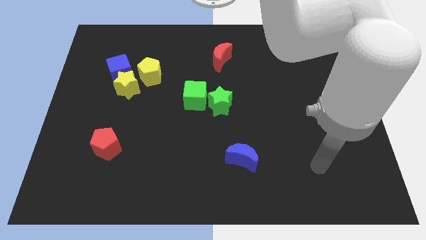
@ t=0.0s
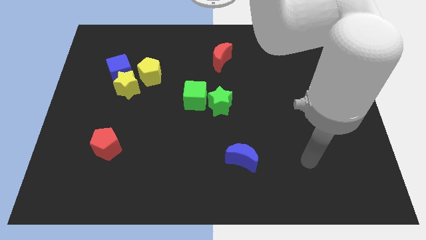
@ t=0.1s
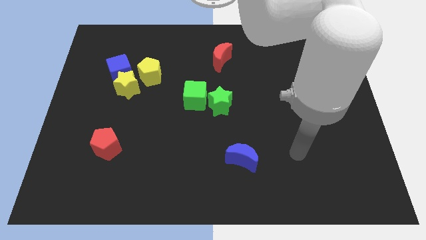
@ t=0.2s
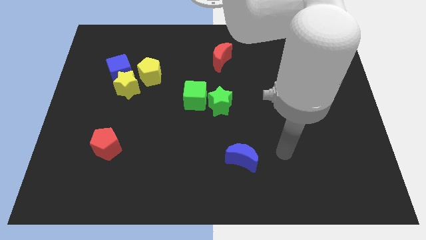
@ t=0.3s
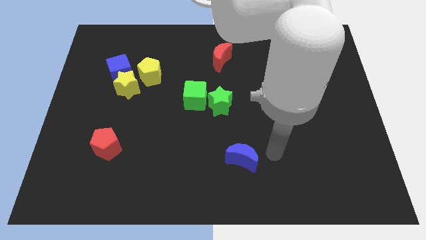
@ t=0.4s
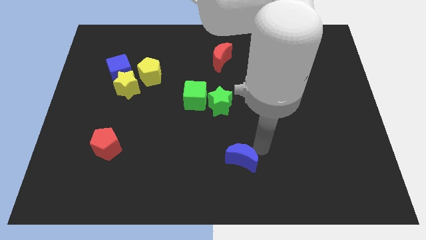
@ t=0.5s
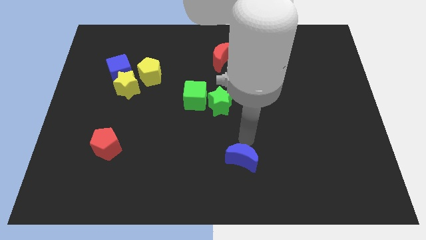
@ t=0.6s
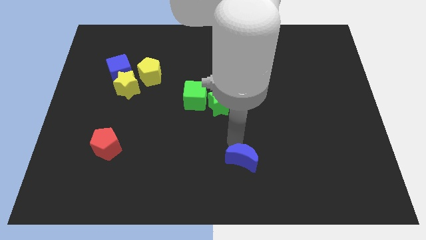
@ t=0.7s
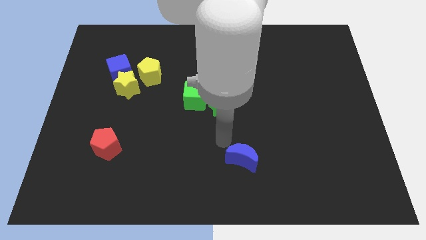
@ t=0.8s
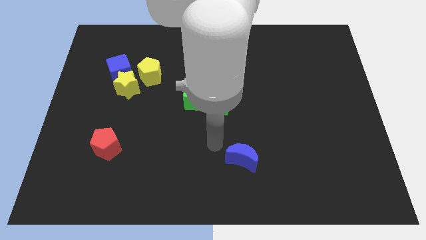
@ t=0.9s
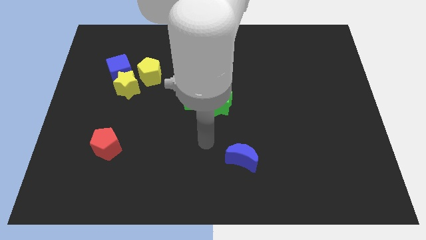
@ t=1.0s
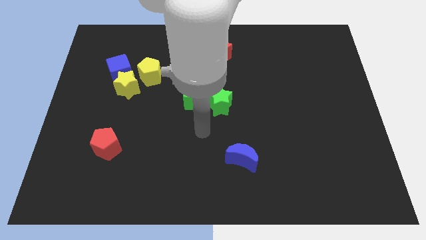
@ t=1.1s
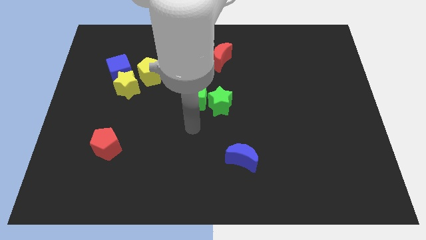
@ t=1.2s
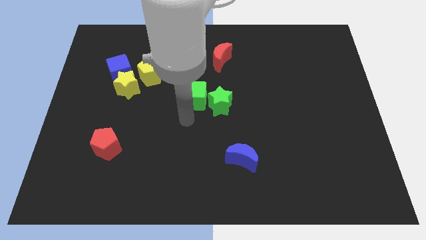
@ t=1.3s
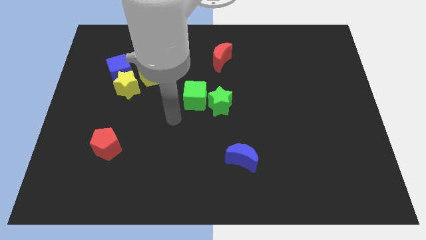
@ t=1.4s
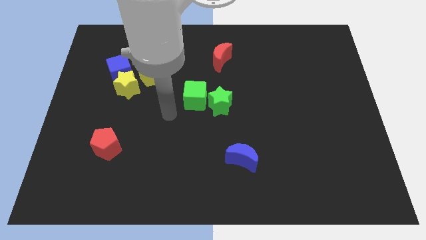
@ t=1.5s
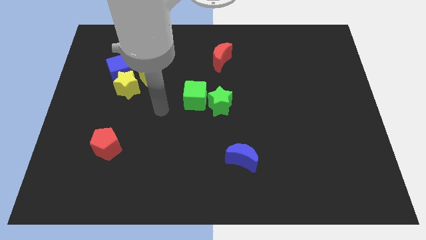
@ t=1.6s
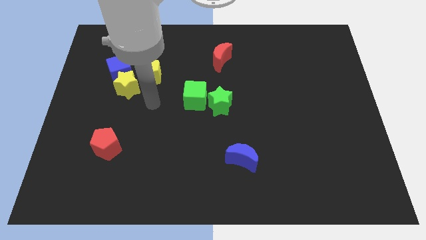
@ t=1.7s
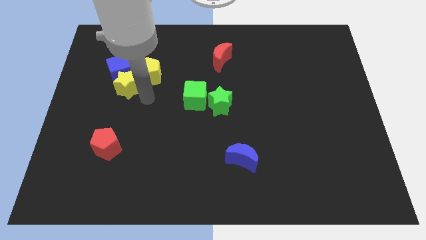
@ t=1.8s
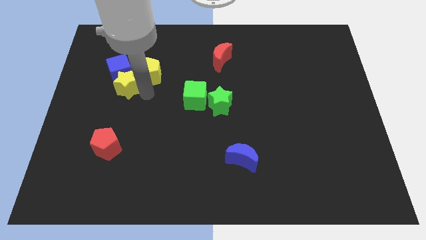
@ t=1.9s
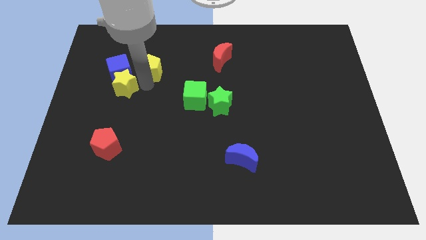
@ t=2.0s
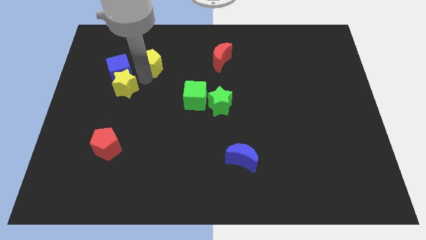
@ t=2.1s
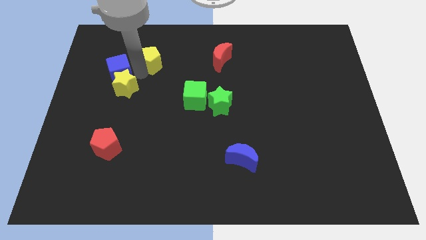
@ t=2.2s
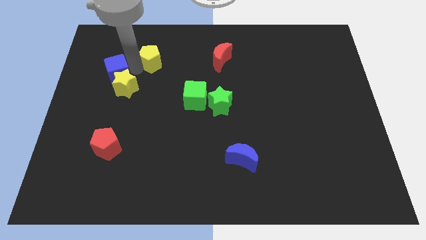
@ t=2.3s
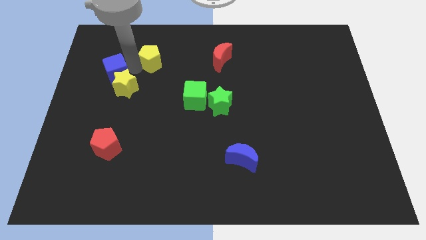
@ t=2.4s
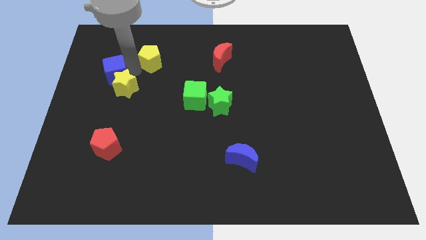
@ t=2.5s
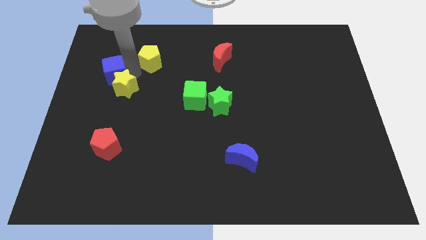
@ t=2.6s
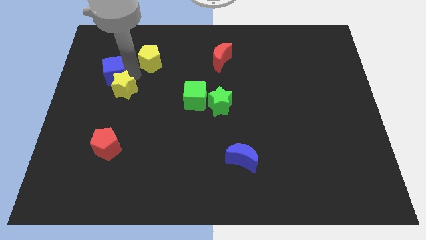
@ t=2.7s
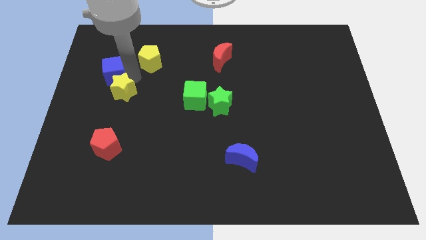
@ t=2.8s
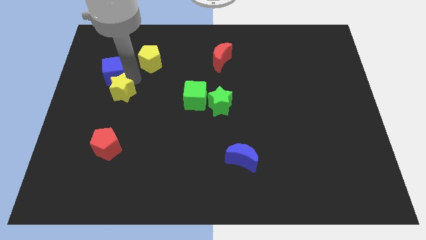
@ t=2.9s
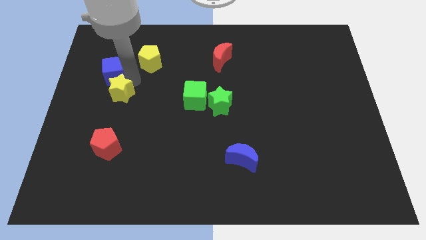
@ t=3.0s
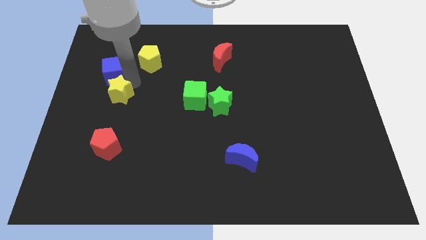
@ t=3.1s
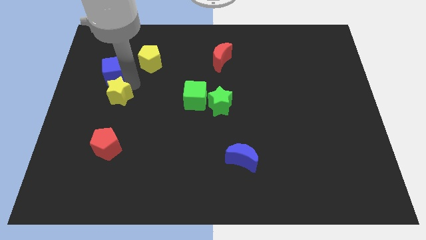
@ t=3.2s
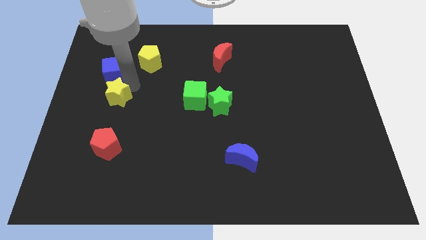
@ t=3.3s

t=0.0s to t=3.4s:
separate the yellow star from the blue cube and yellow pentagon

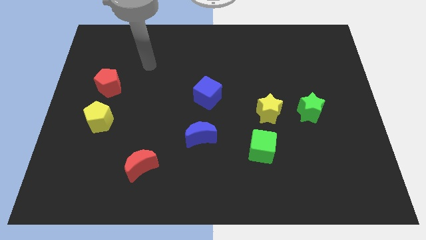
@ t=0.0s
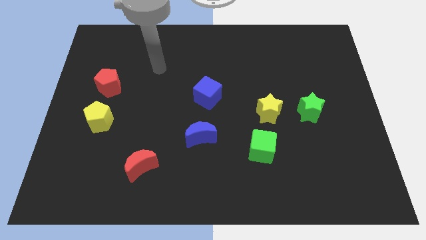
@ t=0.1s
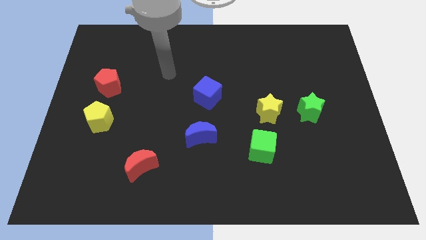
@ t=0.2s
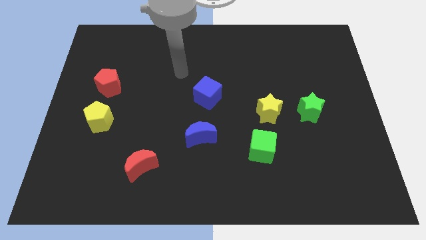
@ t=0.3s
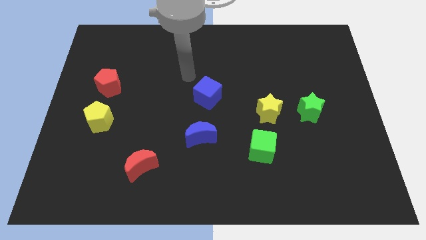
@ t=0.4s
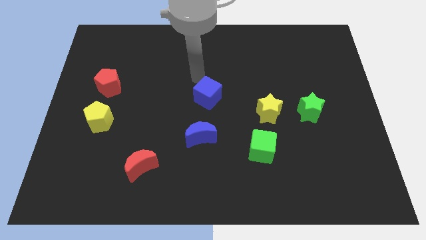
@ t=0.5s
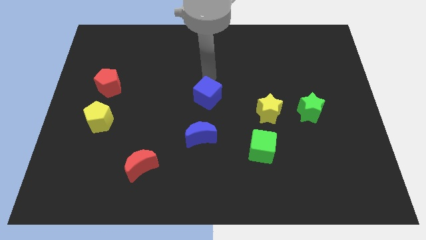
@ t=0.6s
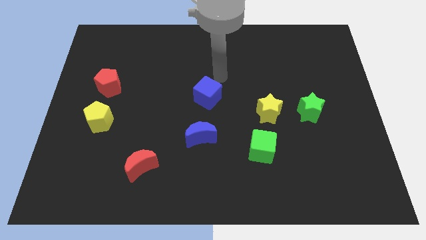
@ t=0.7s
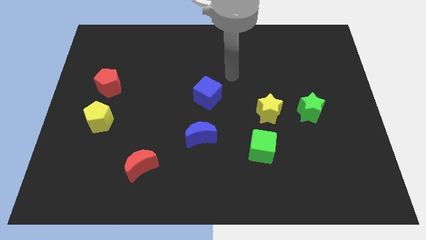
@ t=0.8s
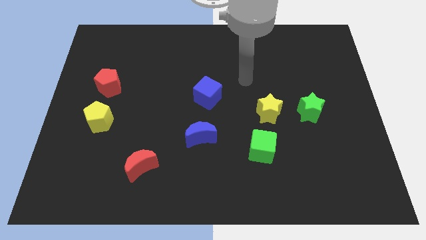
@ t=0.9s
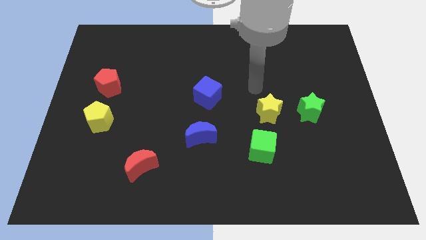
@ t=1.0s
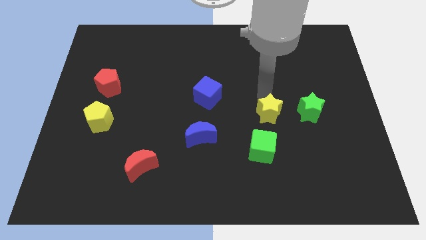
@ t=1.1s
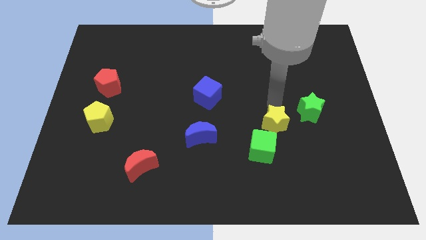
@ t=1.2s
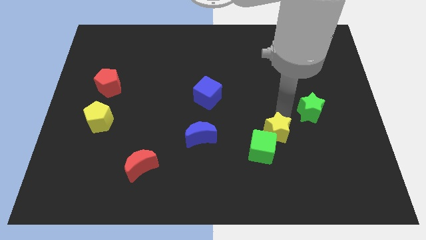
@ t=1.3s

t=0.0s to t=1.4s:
pull the green star apart from the yellow star

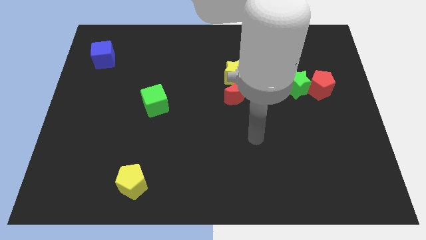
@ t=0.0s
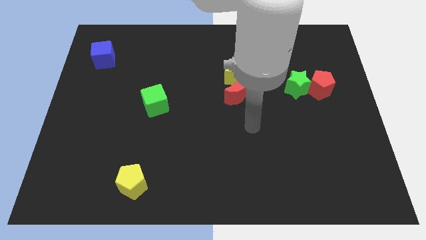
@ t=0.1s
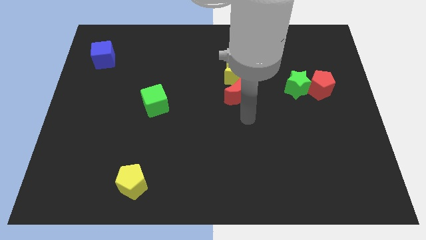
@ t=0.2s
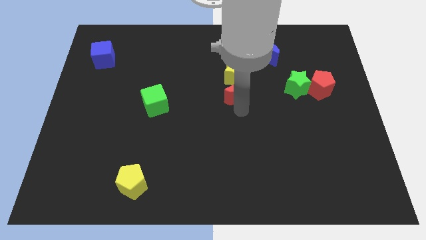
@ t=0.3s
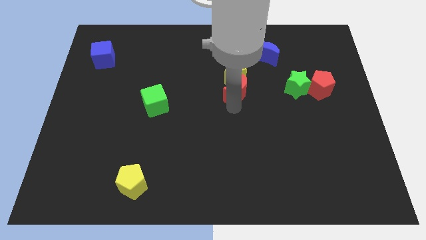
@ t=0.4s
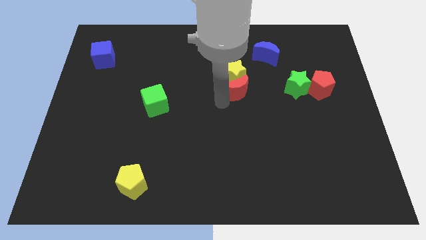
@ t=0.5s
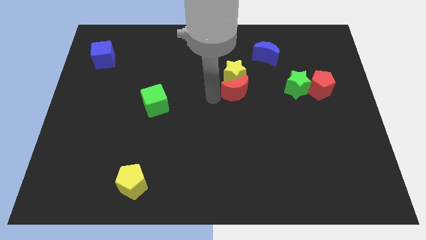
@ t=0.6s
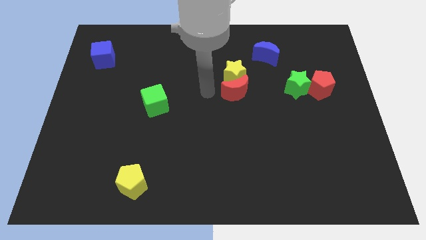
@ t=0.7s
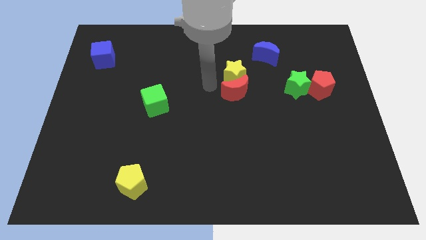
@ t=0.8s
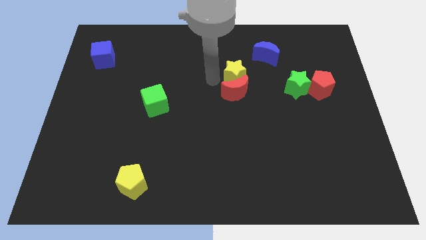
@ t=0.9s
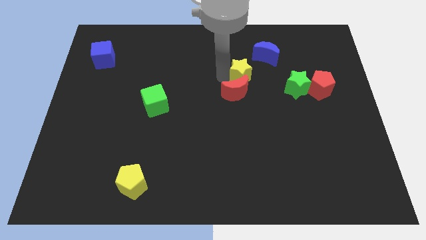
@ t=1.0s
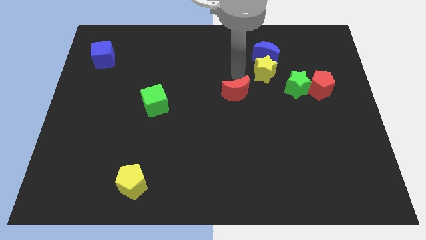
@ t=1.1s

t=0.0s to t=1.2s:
move the red moon away from the yellow star

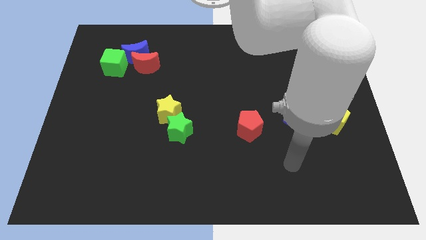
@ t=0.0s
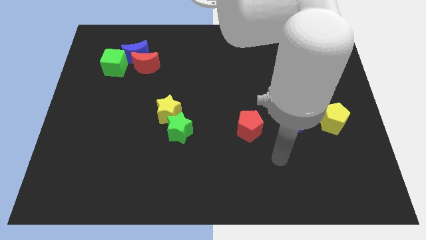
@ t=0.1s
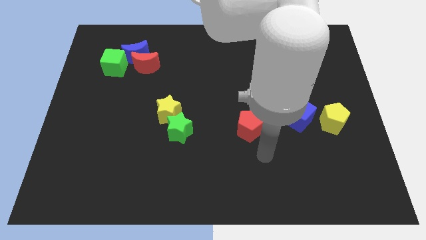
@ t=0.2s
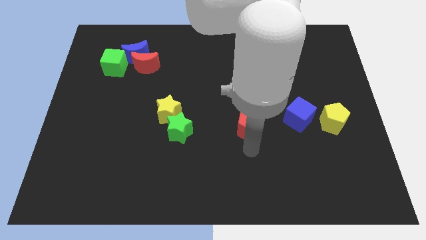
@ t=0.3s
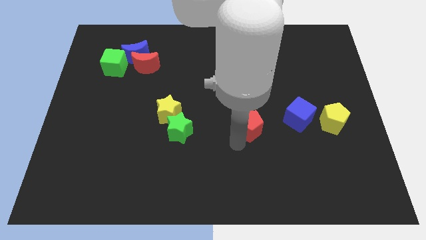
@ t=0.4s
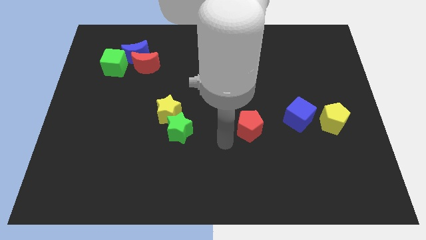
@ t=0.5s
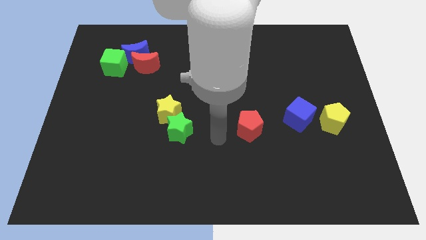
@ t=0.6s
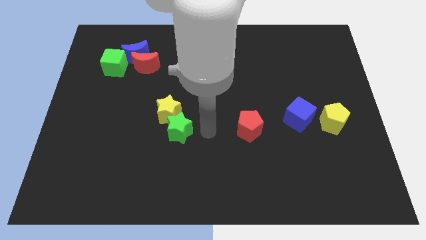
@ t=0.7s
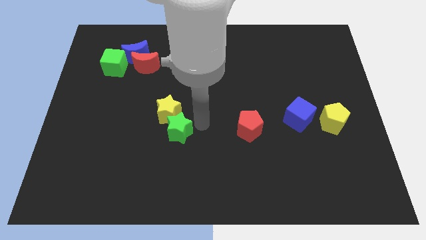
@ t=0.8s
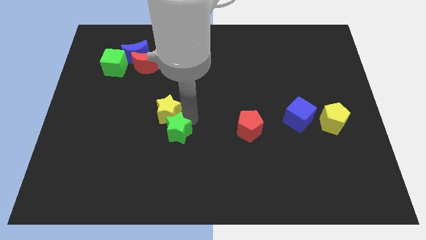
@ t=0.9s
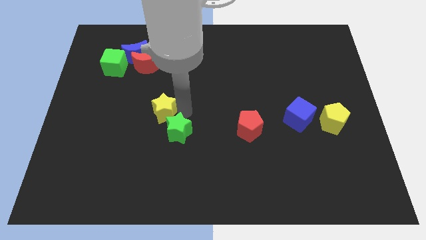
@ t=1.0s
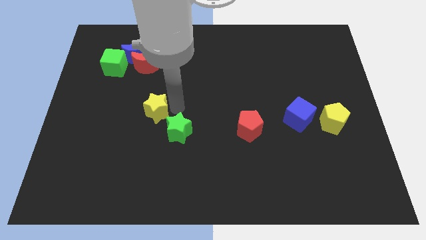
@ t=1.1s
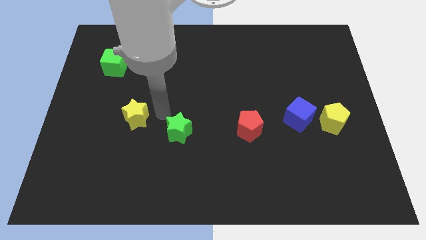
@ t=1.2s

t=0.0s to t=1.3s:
move the green star away from the yellow star

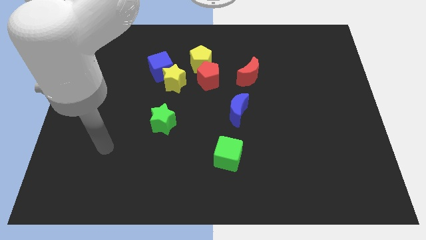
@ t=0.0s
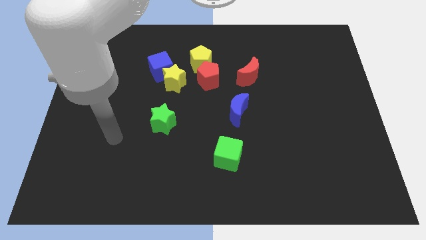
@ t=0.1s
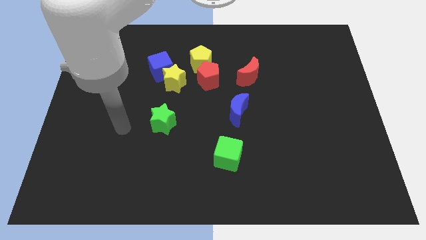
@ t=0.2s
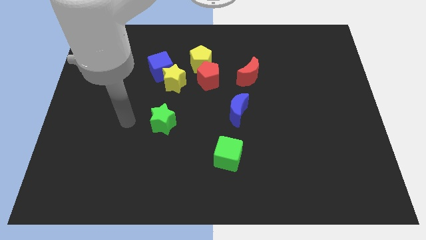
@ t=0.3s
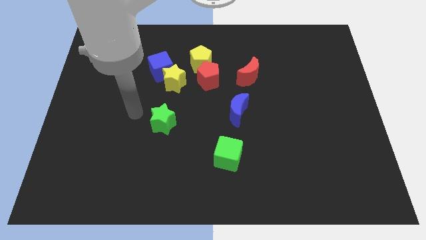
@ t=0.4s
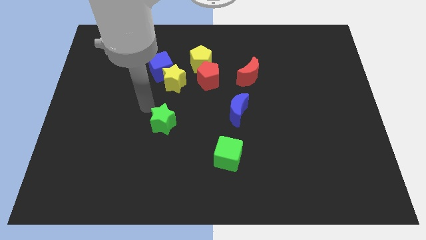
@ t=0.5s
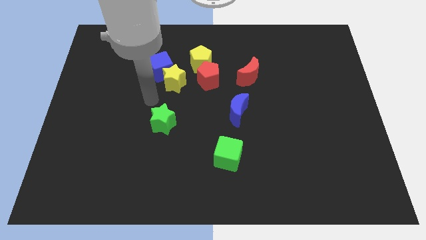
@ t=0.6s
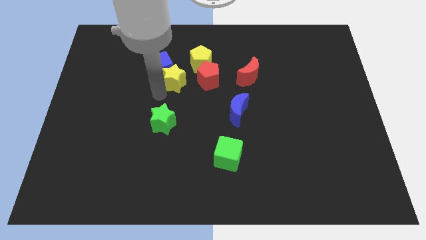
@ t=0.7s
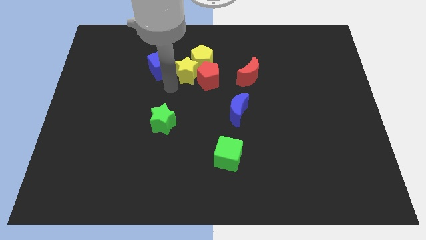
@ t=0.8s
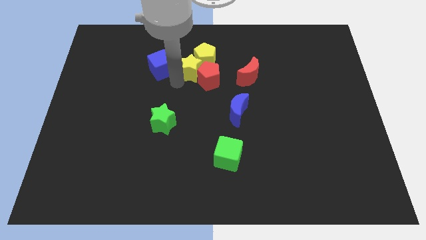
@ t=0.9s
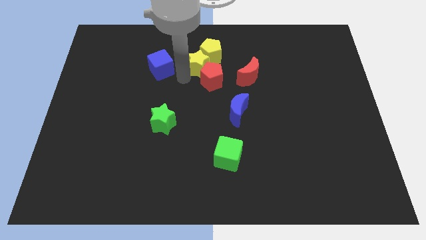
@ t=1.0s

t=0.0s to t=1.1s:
separate the blue cube from the yellow star and yellow pentagon

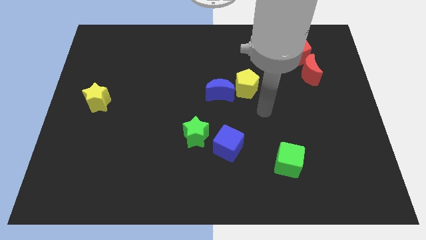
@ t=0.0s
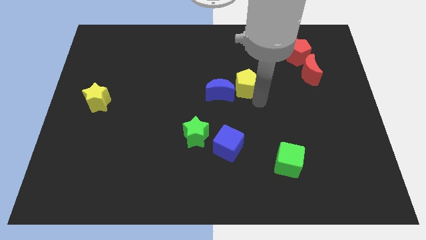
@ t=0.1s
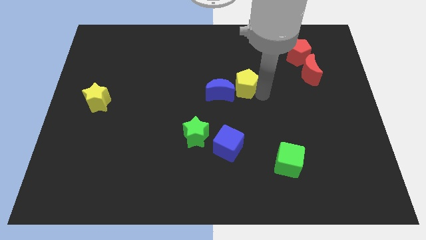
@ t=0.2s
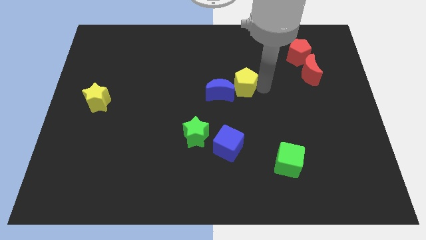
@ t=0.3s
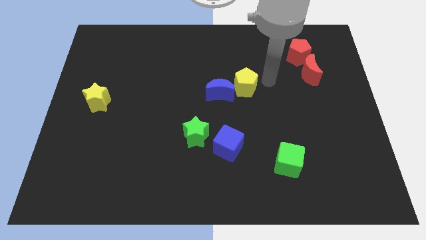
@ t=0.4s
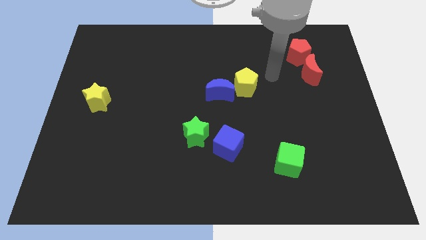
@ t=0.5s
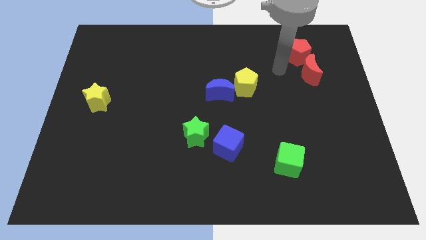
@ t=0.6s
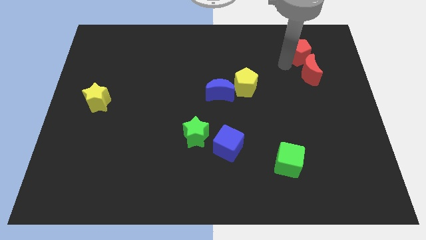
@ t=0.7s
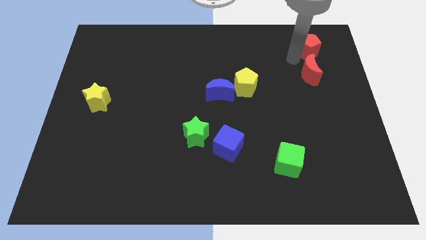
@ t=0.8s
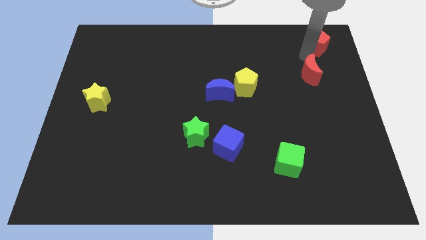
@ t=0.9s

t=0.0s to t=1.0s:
pull the red moon apart from the red pentagon
